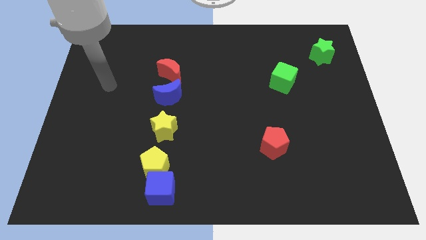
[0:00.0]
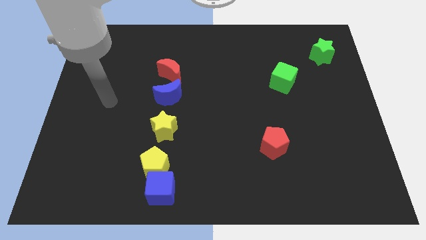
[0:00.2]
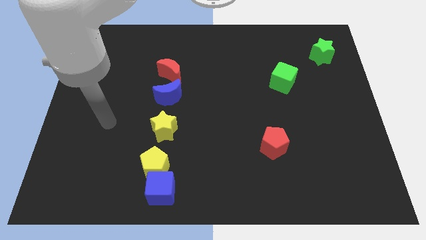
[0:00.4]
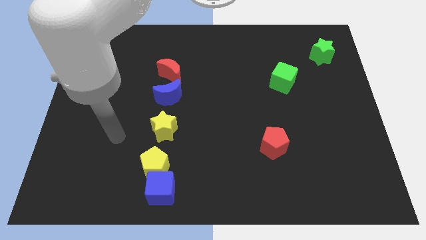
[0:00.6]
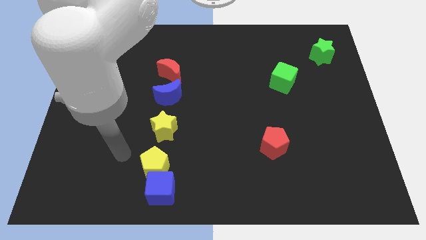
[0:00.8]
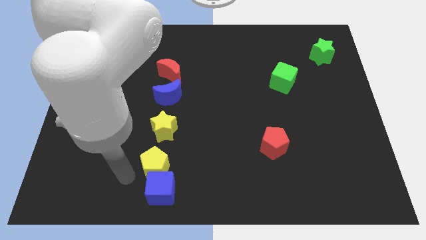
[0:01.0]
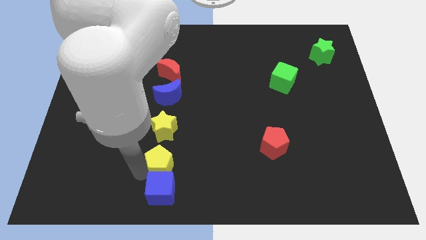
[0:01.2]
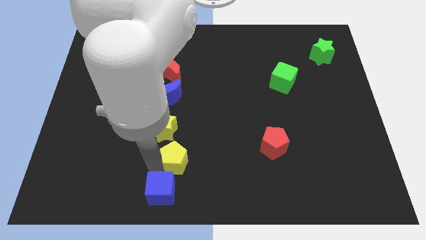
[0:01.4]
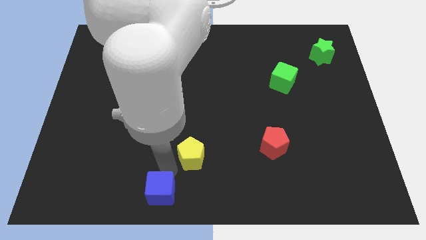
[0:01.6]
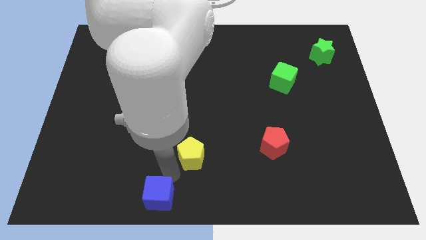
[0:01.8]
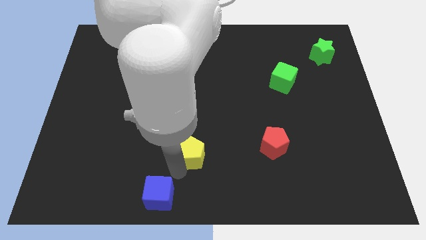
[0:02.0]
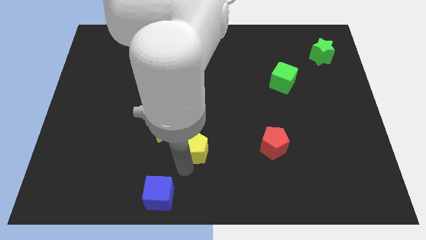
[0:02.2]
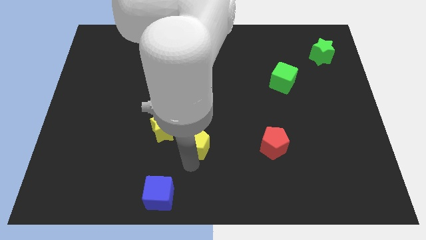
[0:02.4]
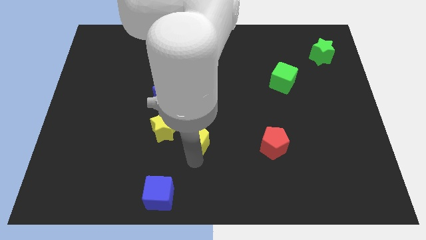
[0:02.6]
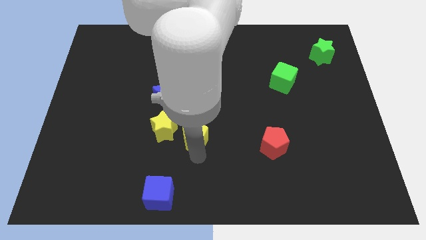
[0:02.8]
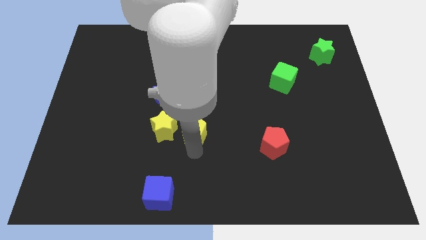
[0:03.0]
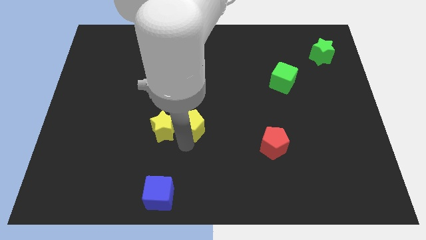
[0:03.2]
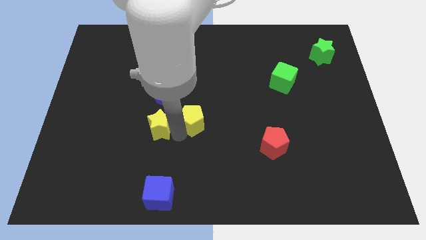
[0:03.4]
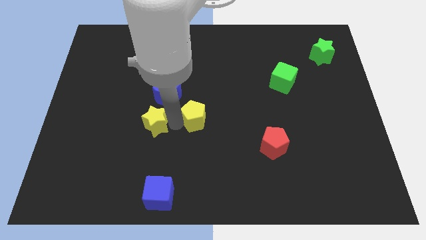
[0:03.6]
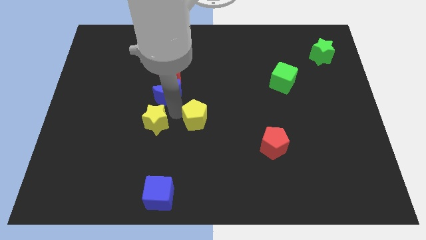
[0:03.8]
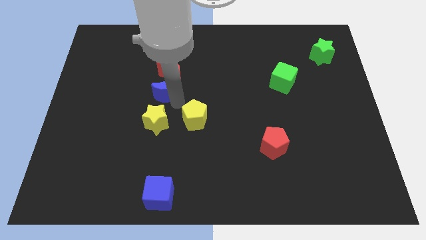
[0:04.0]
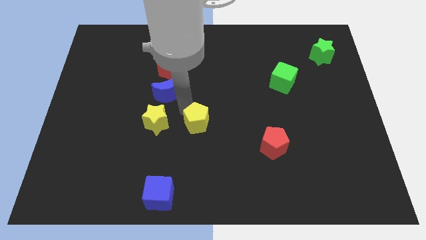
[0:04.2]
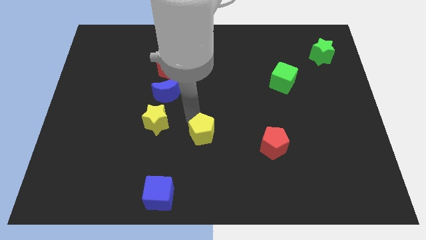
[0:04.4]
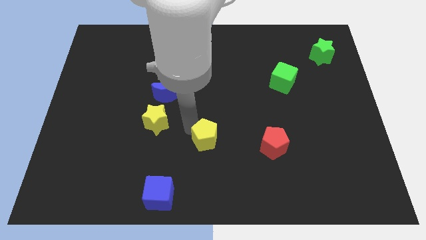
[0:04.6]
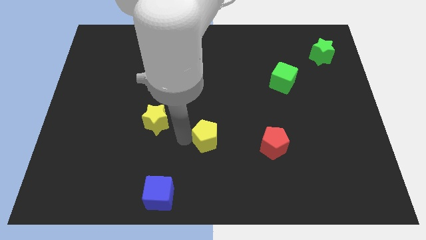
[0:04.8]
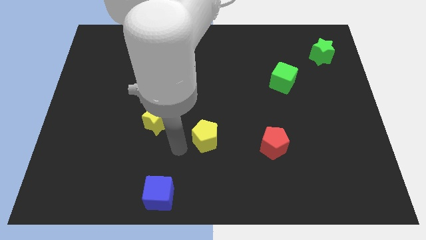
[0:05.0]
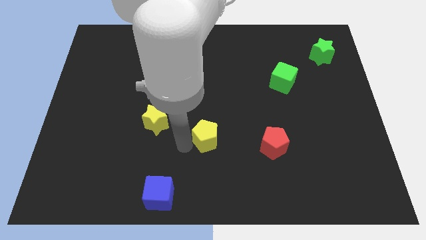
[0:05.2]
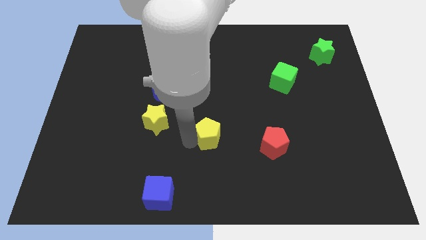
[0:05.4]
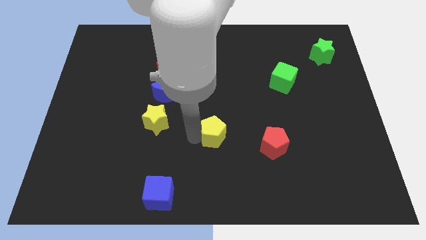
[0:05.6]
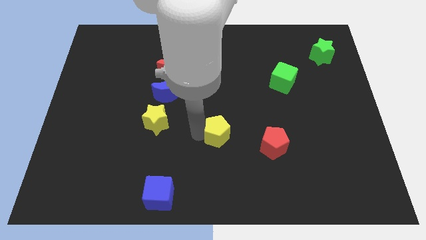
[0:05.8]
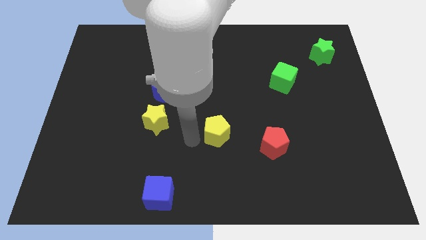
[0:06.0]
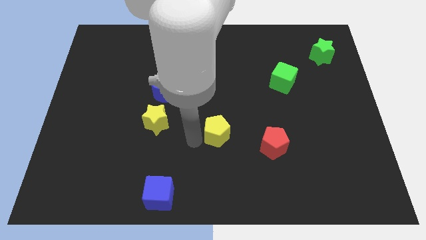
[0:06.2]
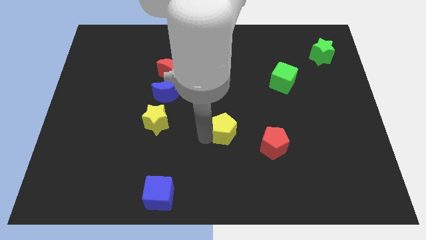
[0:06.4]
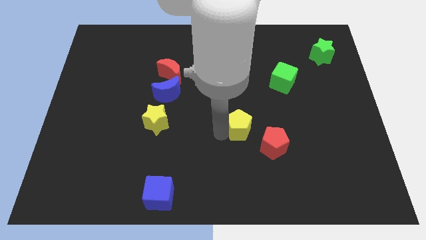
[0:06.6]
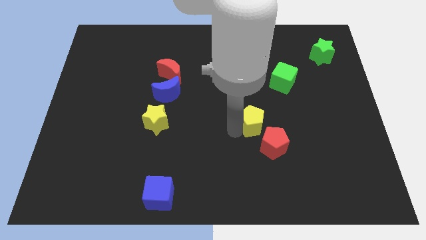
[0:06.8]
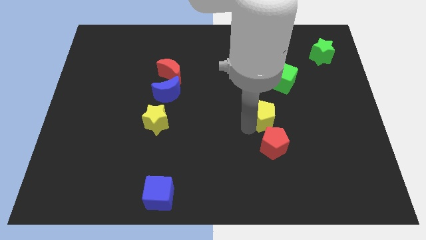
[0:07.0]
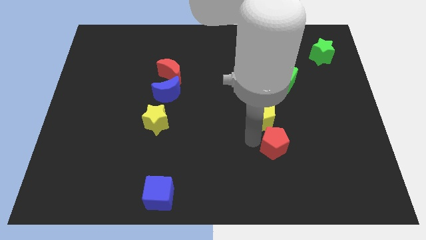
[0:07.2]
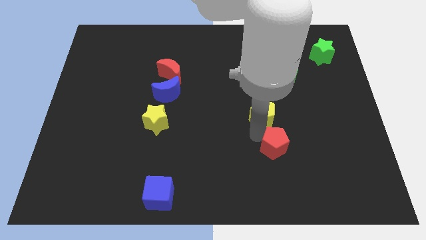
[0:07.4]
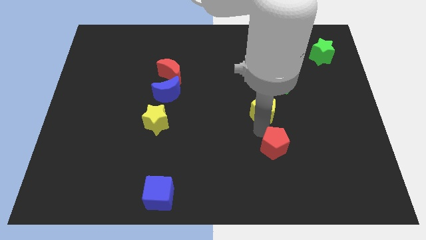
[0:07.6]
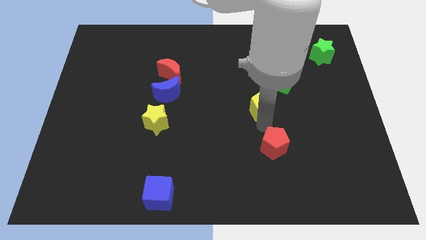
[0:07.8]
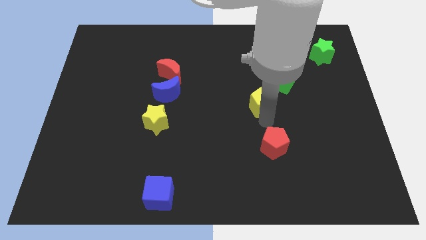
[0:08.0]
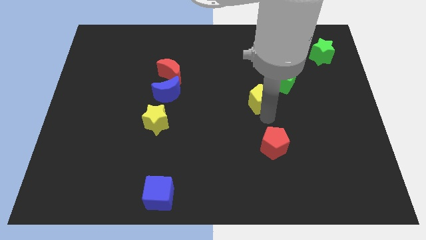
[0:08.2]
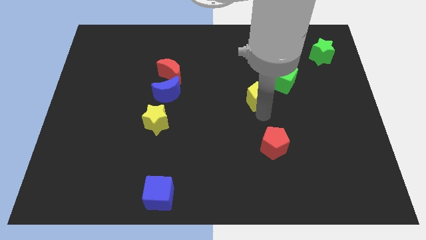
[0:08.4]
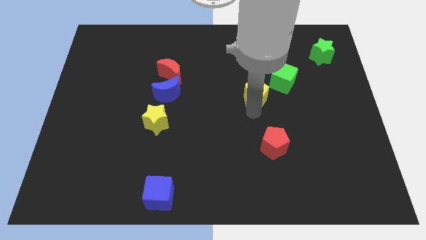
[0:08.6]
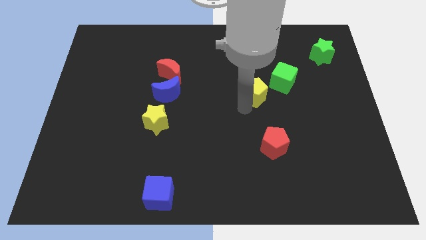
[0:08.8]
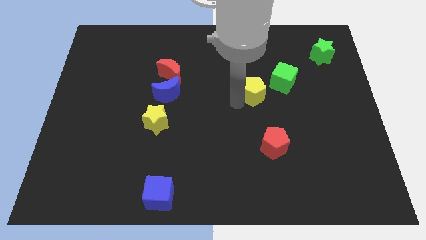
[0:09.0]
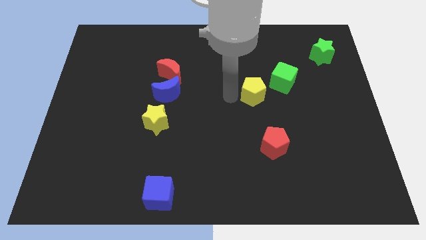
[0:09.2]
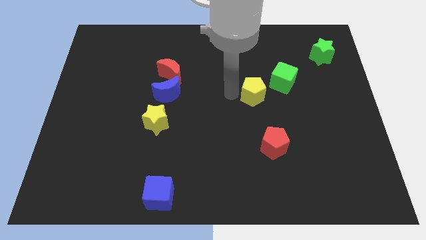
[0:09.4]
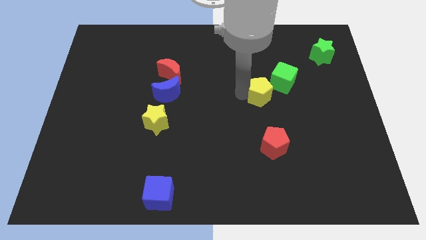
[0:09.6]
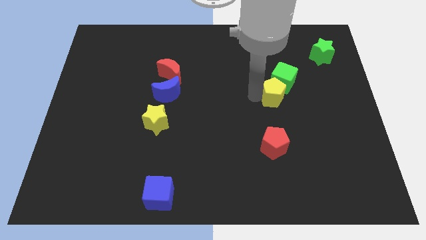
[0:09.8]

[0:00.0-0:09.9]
put the yellow pentagon towards the green cube

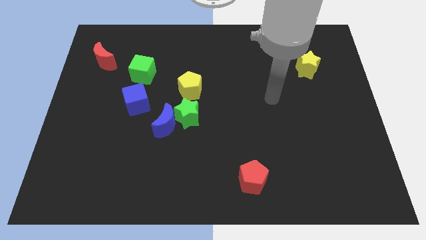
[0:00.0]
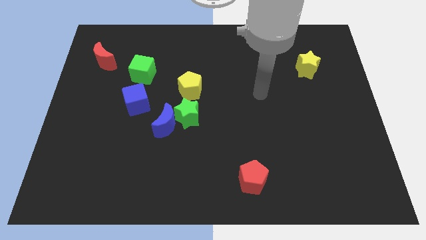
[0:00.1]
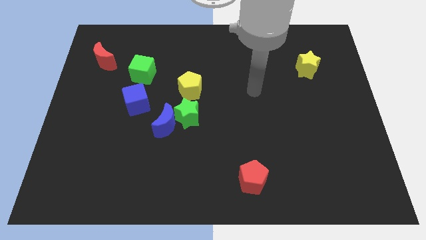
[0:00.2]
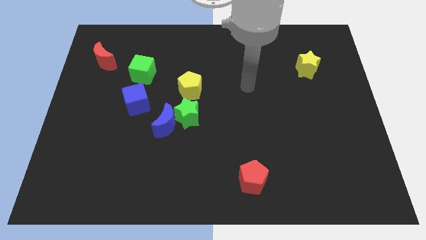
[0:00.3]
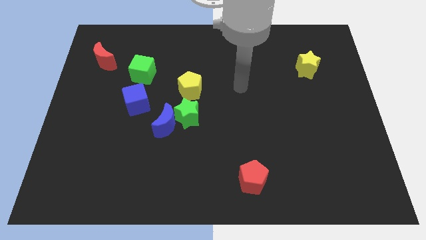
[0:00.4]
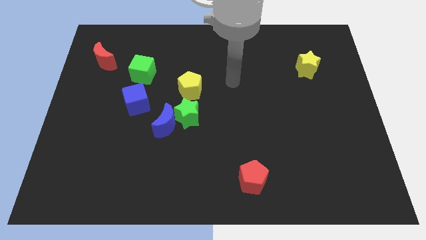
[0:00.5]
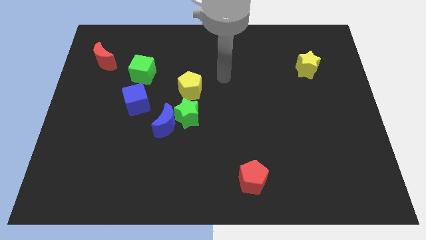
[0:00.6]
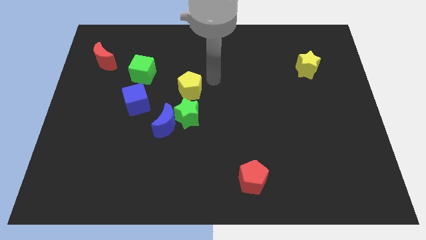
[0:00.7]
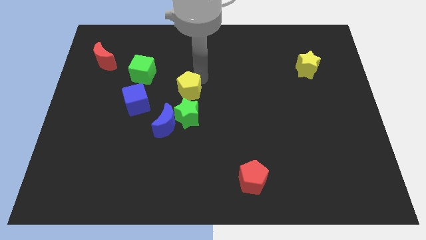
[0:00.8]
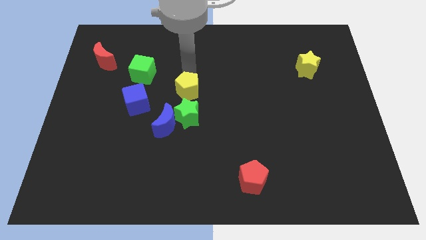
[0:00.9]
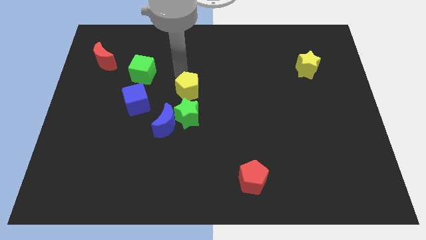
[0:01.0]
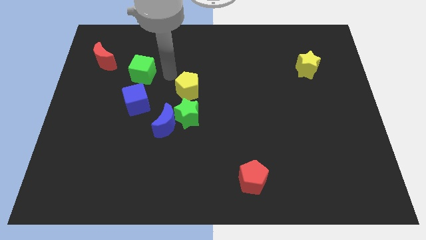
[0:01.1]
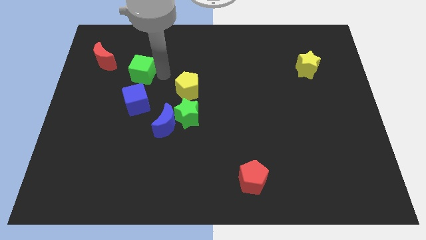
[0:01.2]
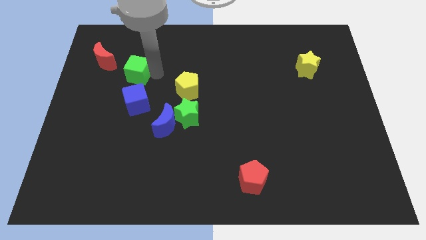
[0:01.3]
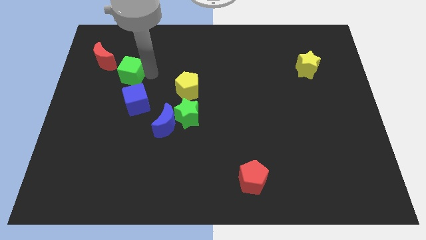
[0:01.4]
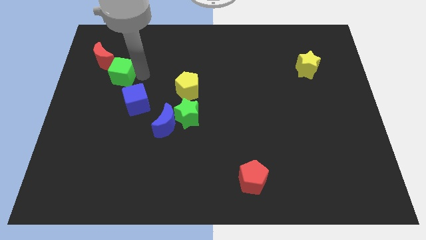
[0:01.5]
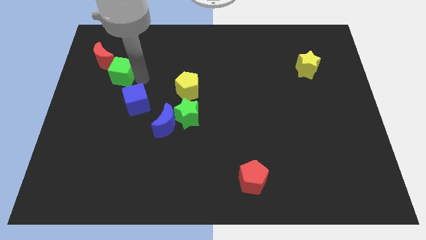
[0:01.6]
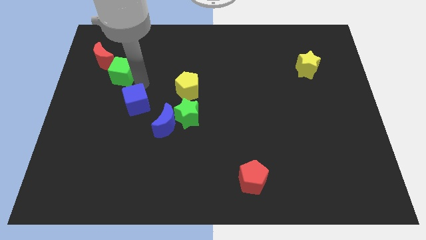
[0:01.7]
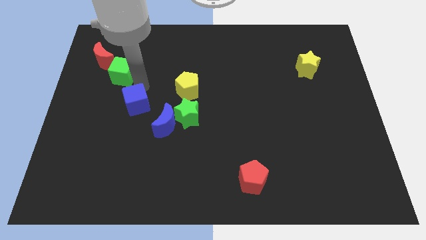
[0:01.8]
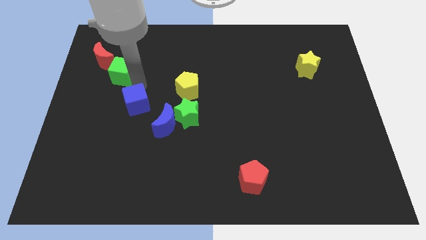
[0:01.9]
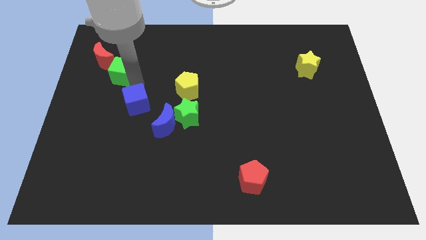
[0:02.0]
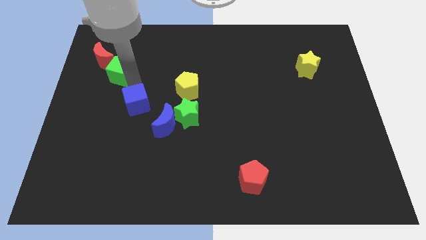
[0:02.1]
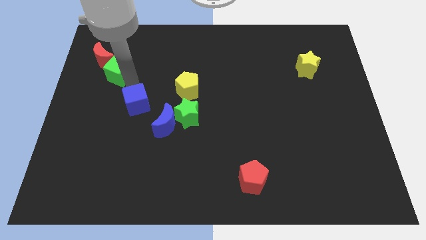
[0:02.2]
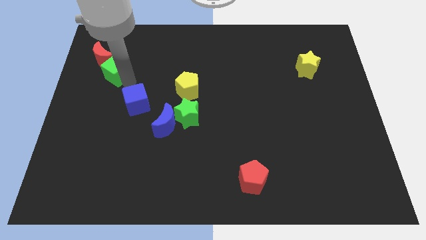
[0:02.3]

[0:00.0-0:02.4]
put the green cube close to the red moon
